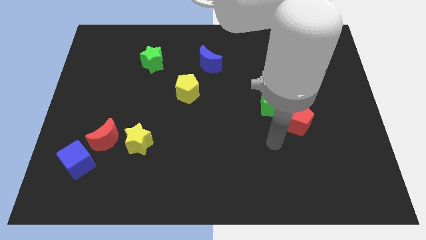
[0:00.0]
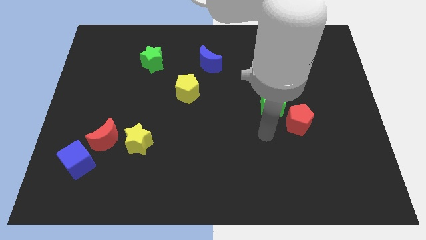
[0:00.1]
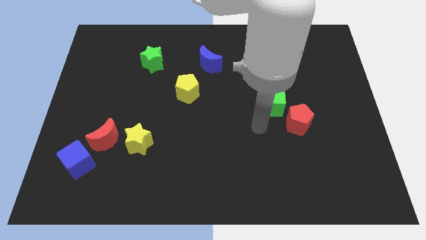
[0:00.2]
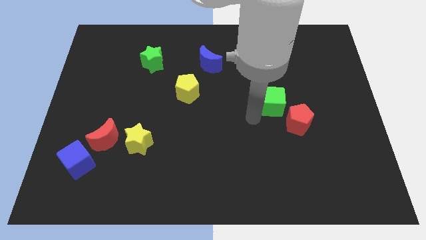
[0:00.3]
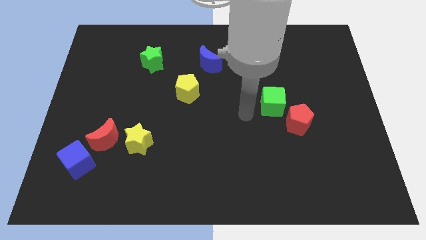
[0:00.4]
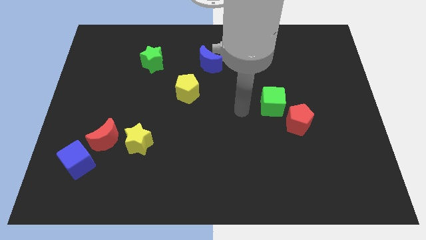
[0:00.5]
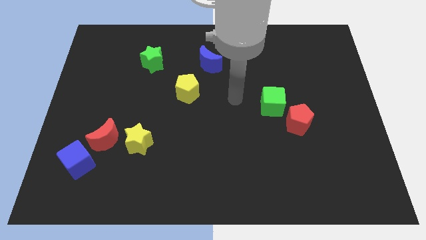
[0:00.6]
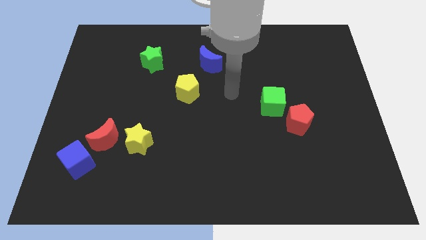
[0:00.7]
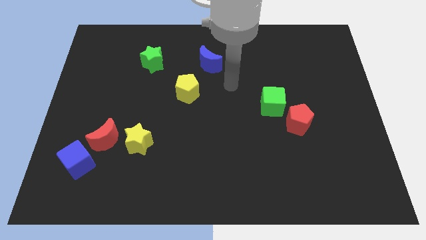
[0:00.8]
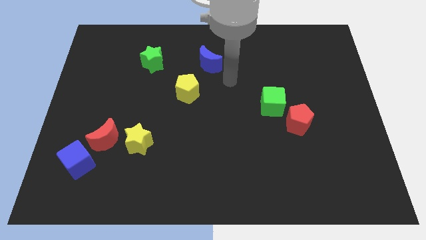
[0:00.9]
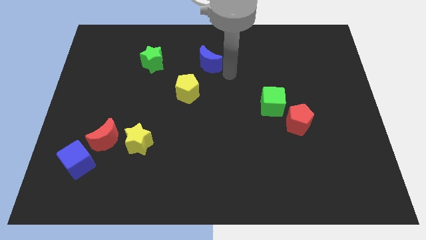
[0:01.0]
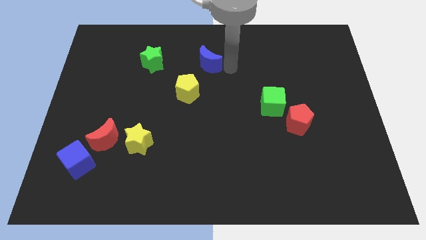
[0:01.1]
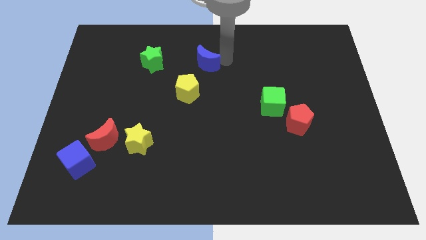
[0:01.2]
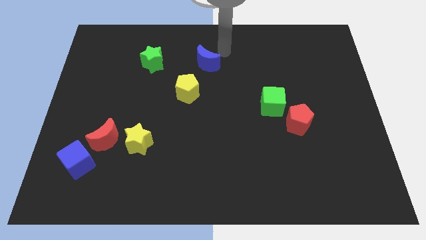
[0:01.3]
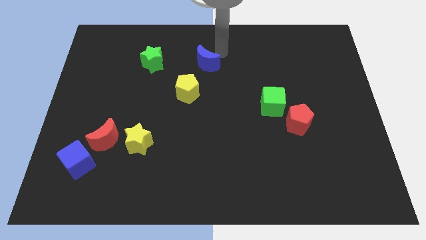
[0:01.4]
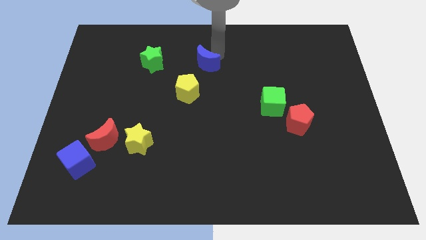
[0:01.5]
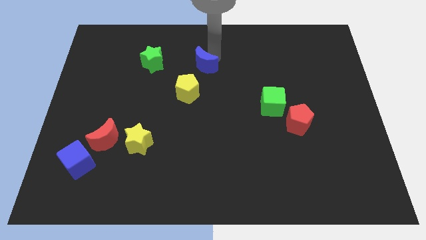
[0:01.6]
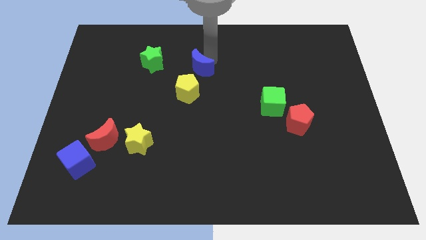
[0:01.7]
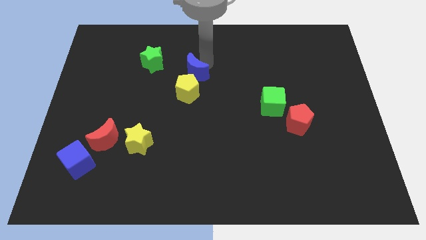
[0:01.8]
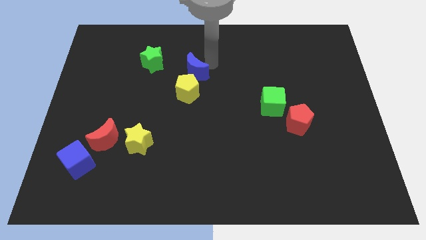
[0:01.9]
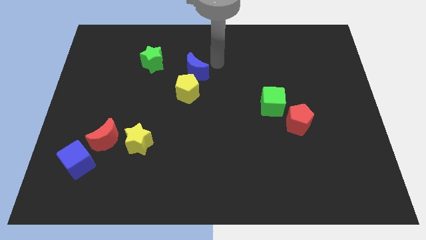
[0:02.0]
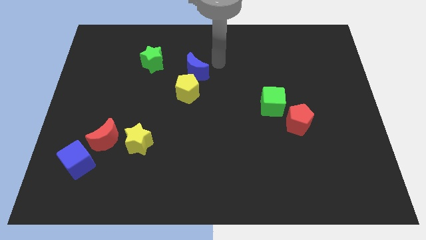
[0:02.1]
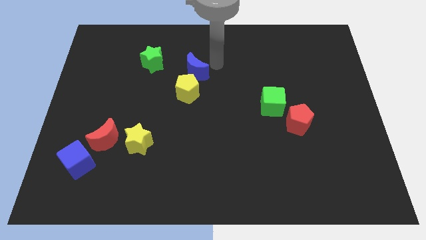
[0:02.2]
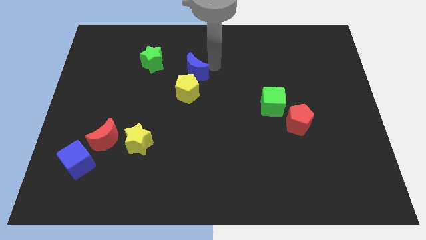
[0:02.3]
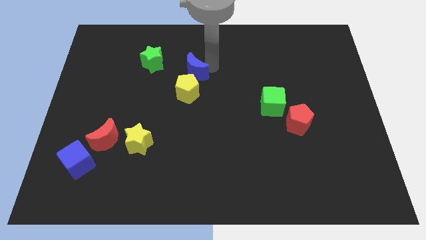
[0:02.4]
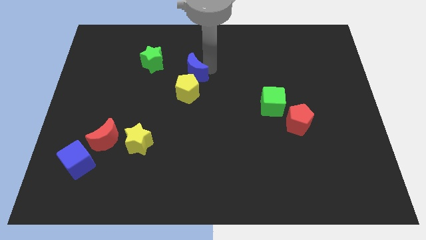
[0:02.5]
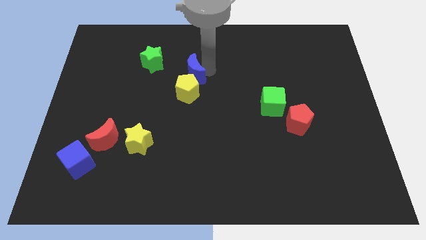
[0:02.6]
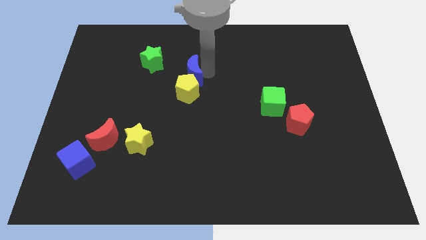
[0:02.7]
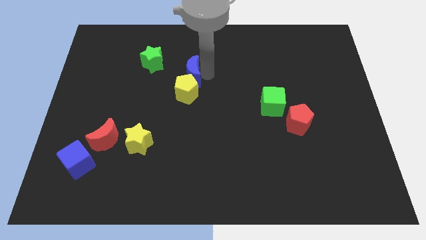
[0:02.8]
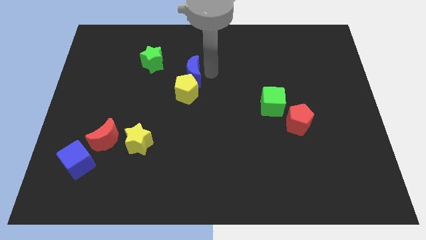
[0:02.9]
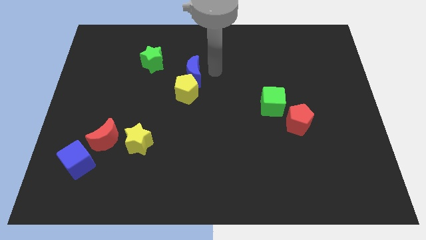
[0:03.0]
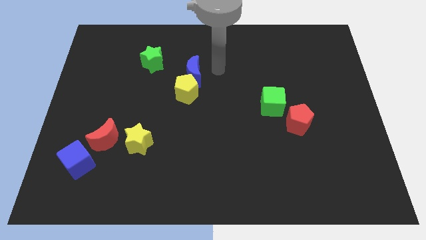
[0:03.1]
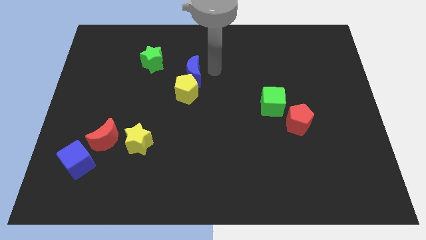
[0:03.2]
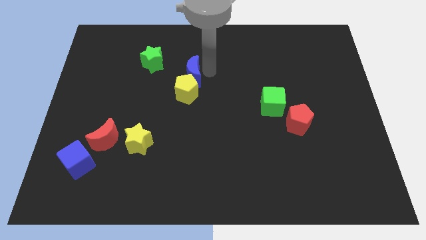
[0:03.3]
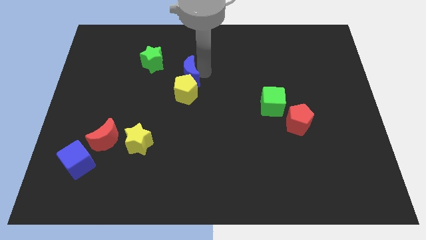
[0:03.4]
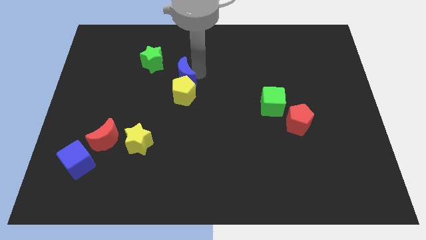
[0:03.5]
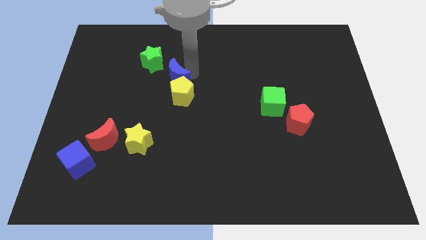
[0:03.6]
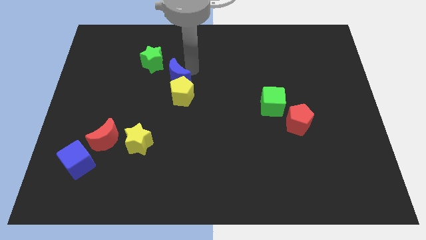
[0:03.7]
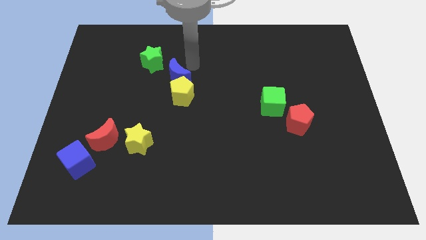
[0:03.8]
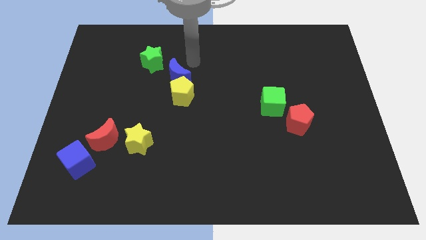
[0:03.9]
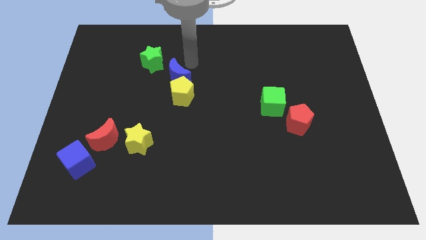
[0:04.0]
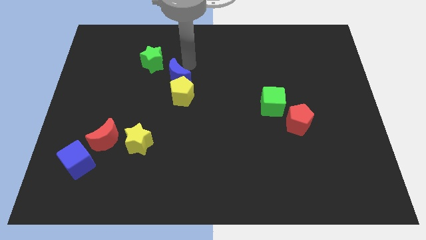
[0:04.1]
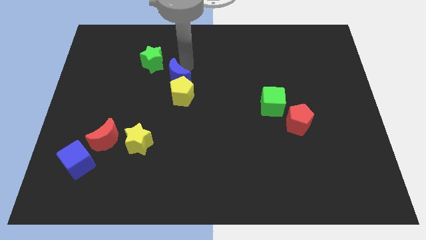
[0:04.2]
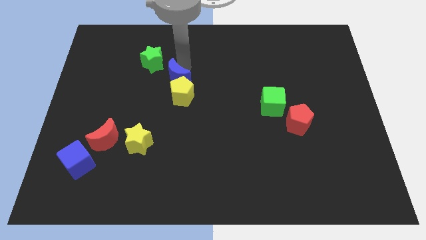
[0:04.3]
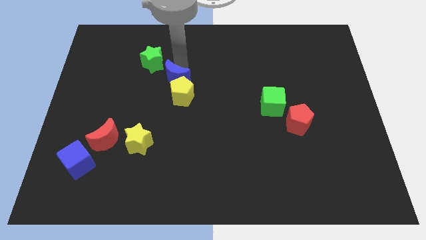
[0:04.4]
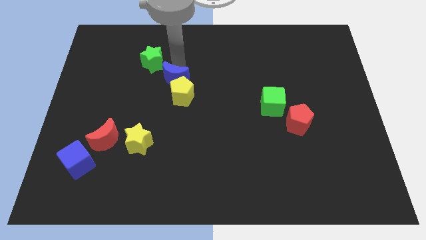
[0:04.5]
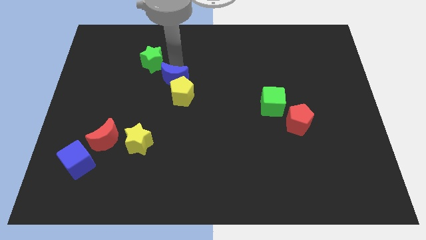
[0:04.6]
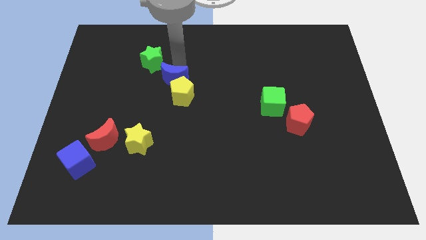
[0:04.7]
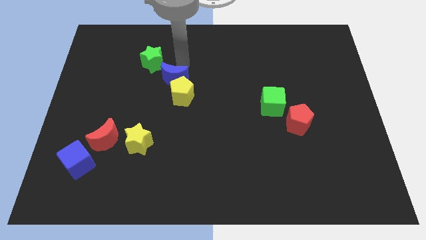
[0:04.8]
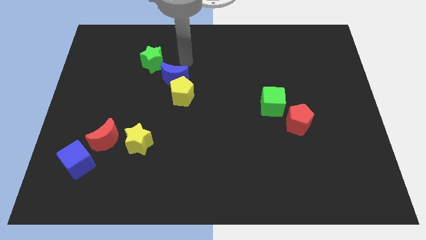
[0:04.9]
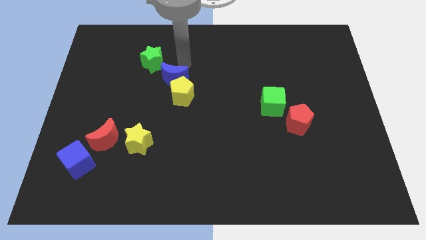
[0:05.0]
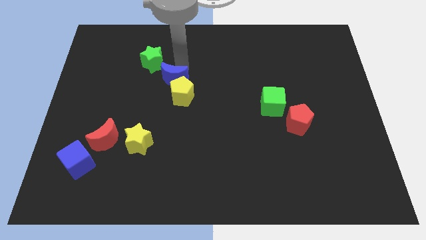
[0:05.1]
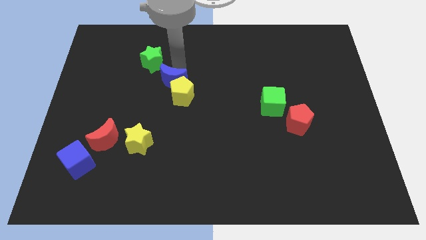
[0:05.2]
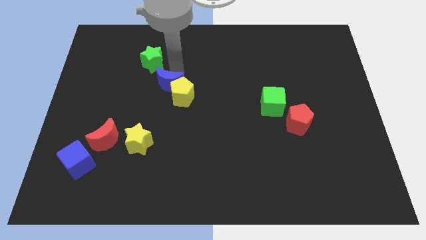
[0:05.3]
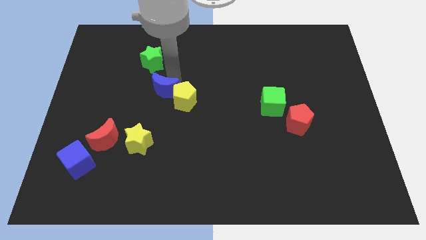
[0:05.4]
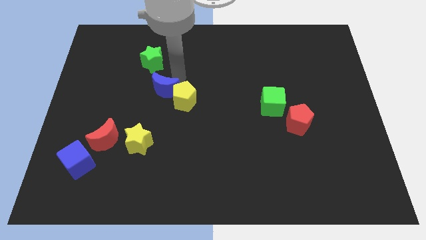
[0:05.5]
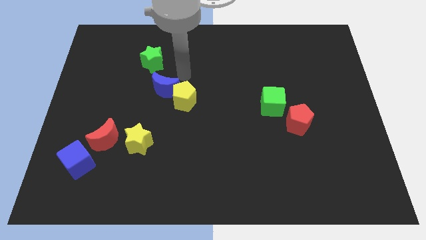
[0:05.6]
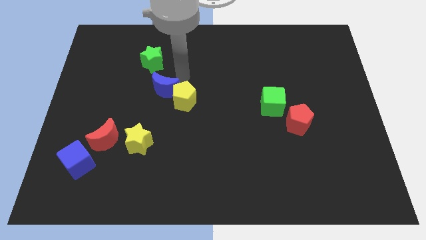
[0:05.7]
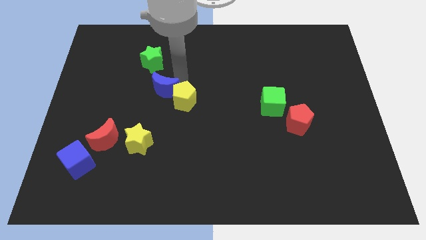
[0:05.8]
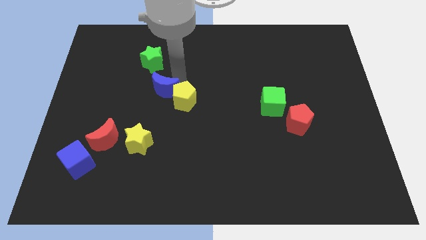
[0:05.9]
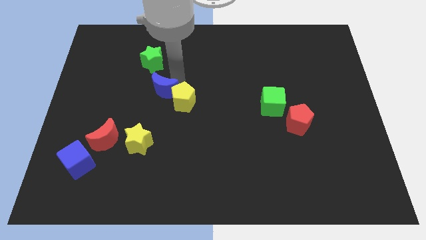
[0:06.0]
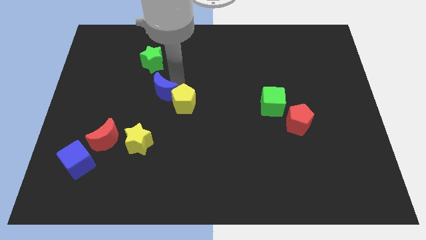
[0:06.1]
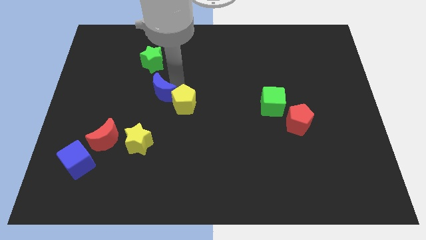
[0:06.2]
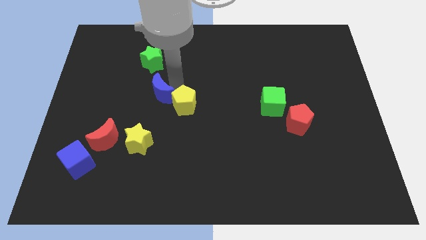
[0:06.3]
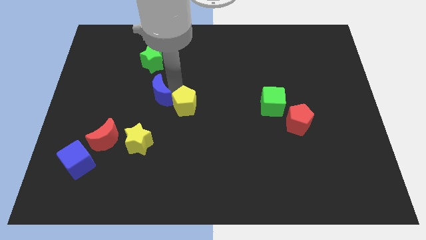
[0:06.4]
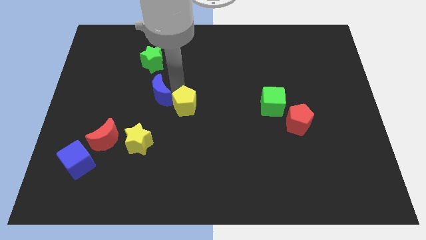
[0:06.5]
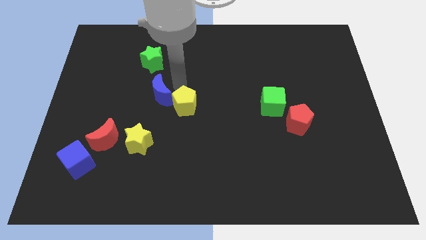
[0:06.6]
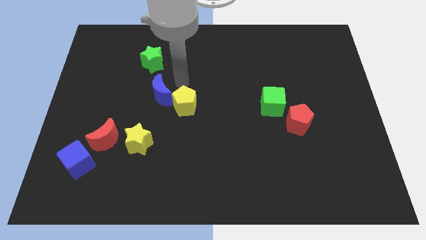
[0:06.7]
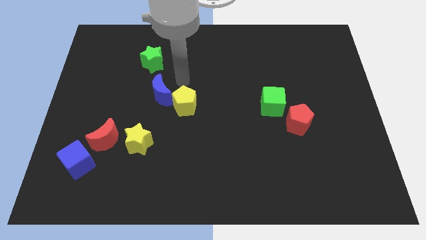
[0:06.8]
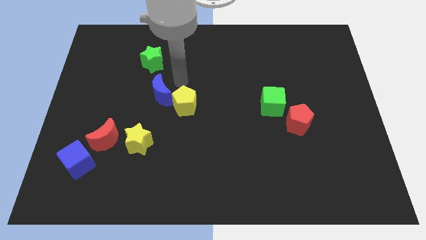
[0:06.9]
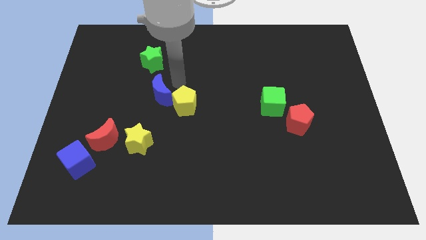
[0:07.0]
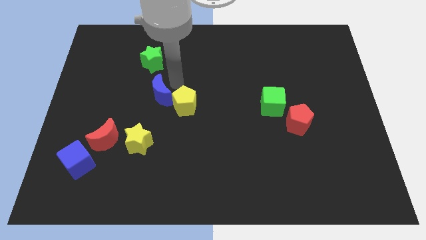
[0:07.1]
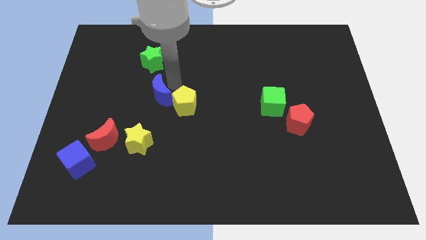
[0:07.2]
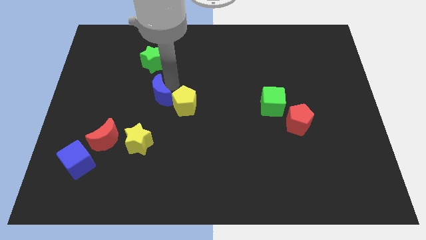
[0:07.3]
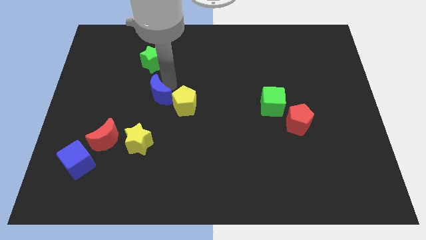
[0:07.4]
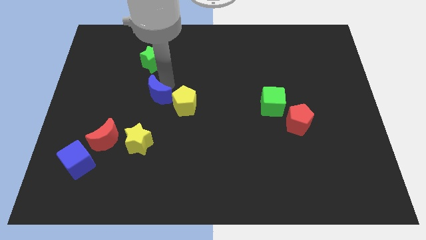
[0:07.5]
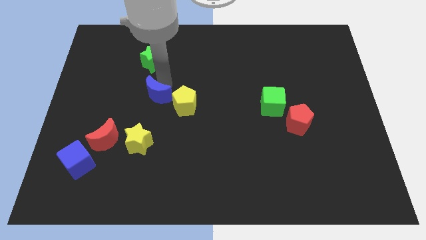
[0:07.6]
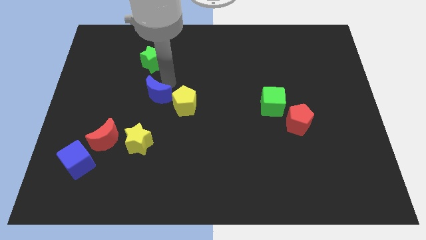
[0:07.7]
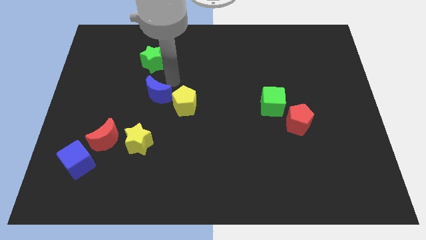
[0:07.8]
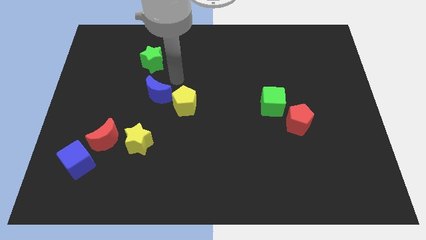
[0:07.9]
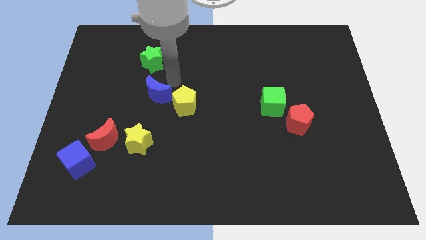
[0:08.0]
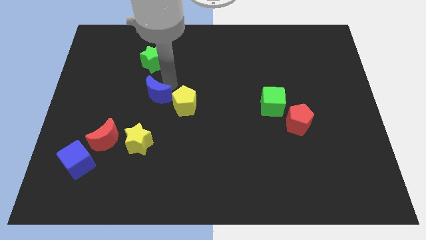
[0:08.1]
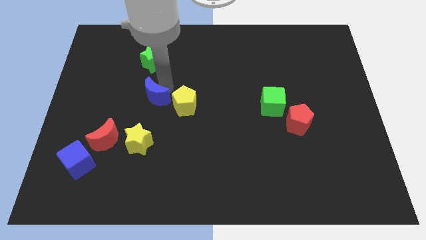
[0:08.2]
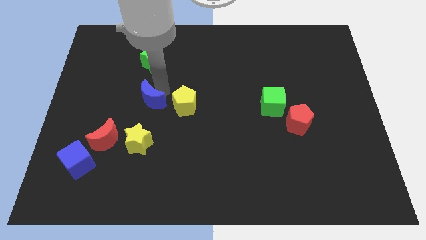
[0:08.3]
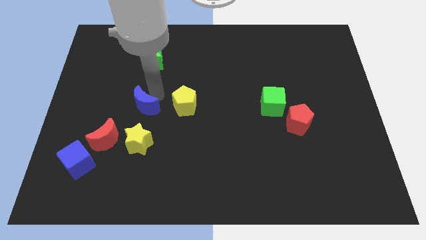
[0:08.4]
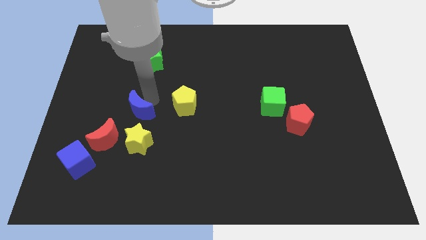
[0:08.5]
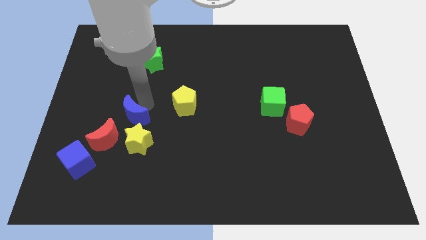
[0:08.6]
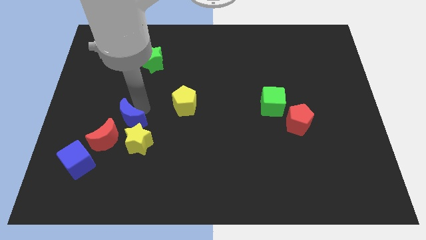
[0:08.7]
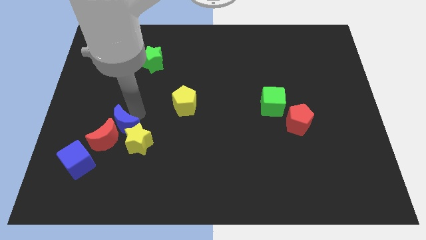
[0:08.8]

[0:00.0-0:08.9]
slide the blue moon to the red moon

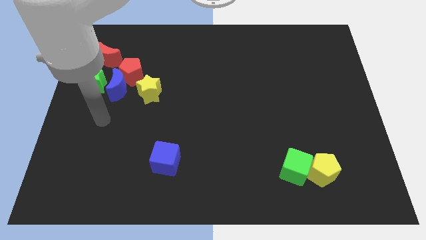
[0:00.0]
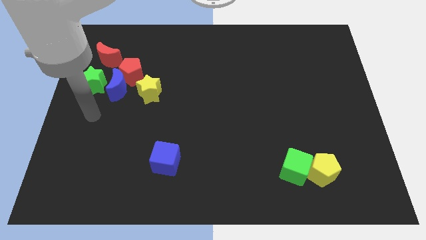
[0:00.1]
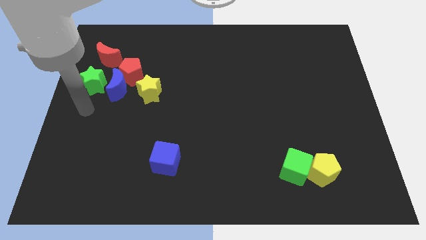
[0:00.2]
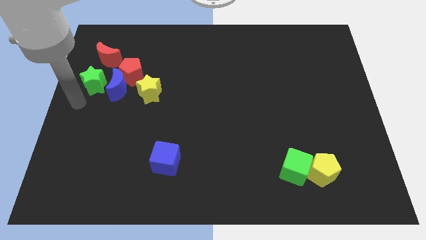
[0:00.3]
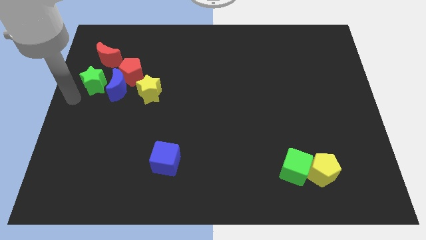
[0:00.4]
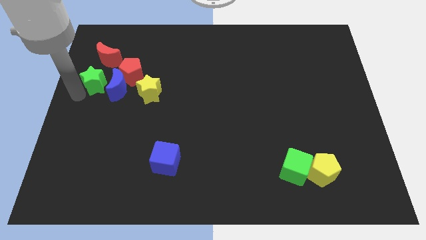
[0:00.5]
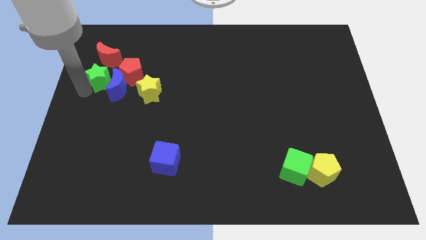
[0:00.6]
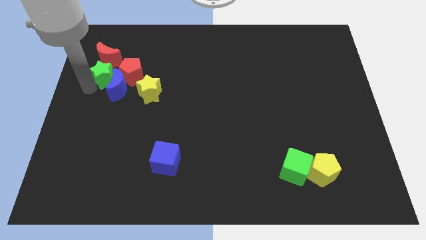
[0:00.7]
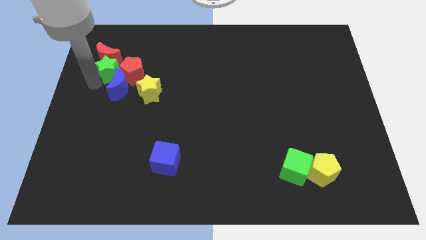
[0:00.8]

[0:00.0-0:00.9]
push the green star towards the red pentagon
